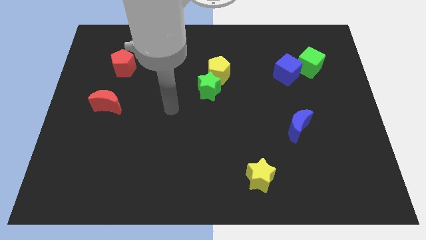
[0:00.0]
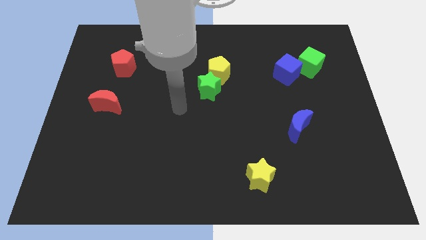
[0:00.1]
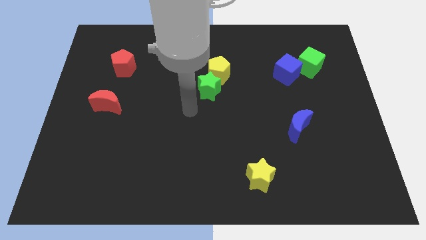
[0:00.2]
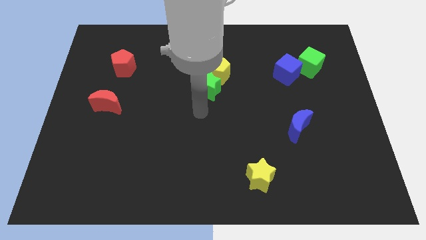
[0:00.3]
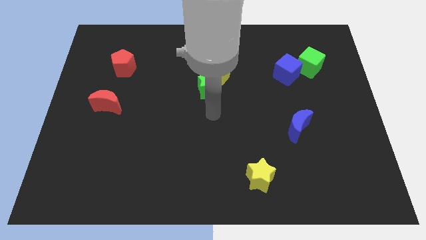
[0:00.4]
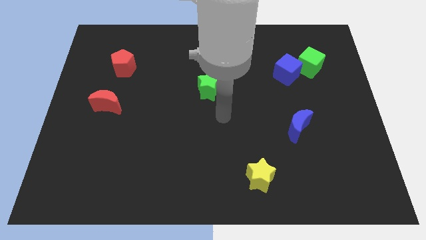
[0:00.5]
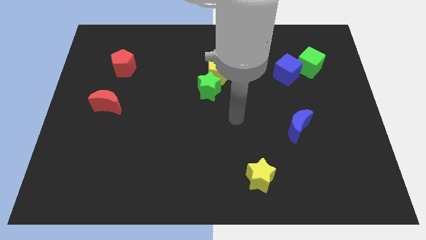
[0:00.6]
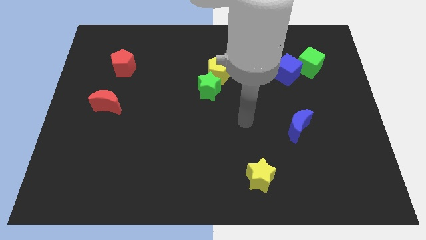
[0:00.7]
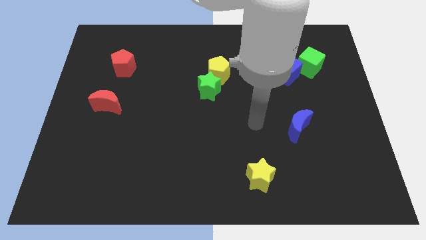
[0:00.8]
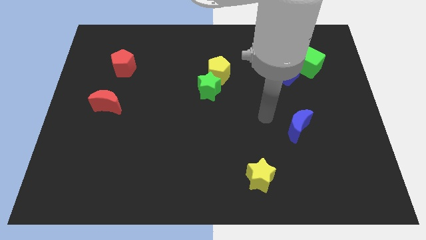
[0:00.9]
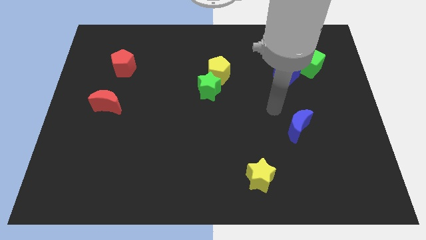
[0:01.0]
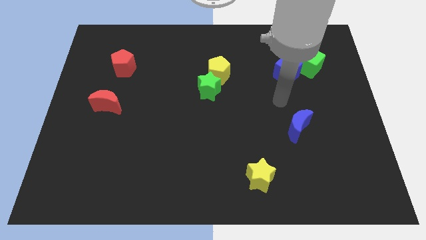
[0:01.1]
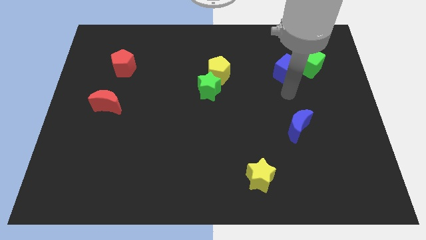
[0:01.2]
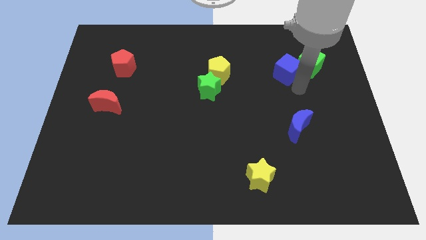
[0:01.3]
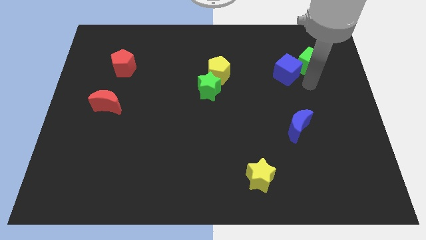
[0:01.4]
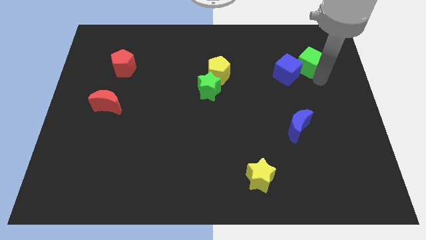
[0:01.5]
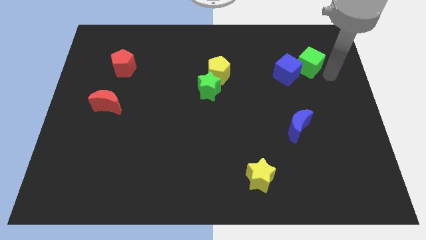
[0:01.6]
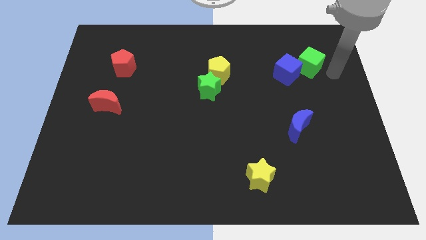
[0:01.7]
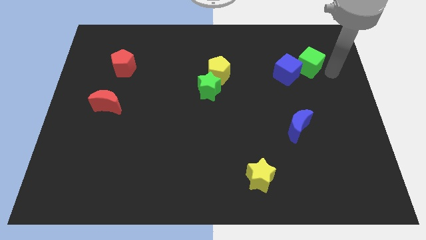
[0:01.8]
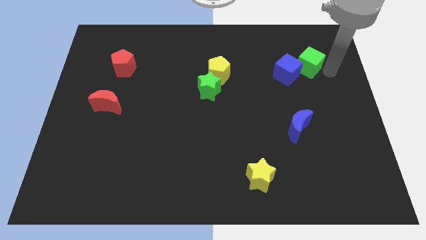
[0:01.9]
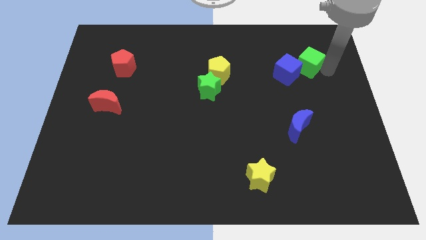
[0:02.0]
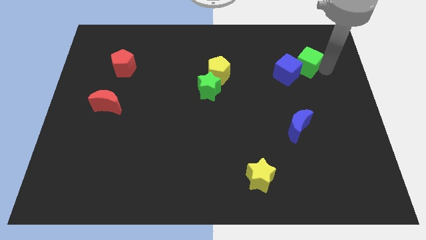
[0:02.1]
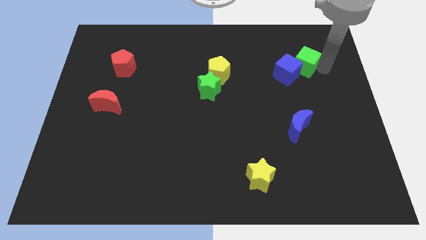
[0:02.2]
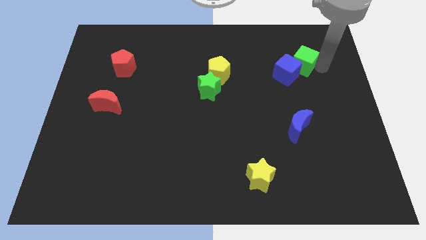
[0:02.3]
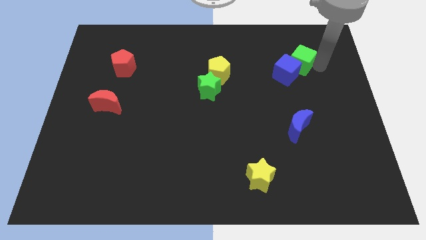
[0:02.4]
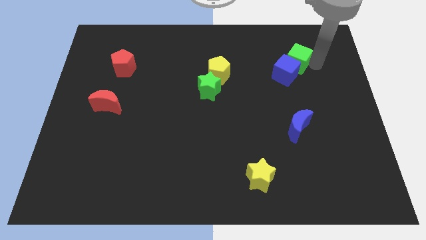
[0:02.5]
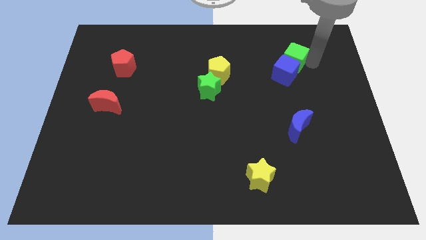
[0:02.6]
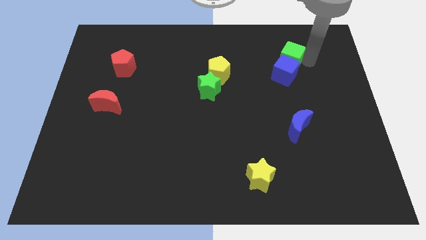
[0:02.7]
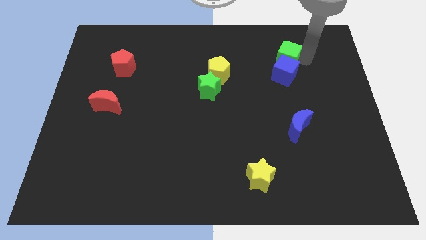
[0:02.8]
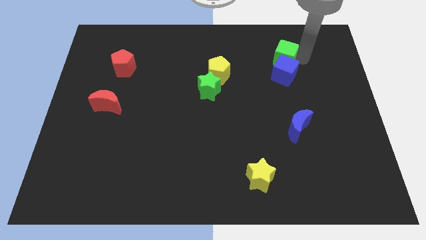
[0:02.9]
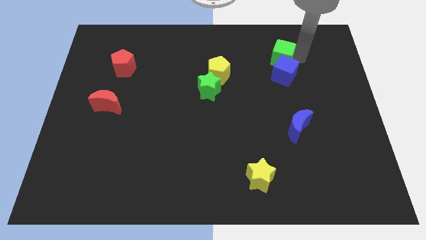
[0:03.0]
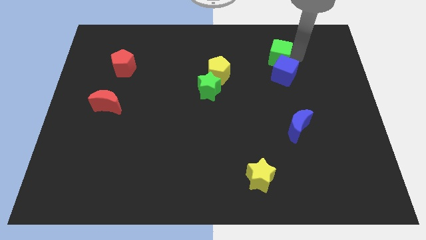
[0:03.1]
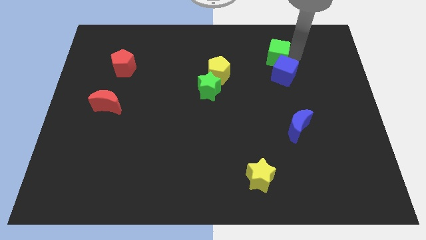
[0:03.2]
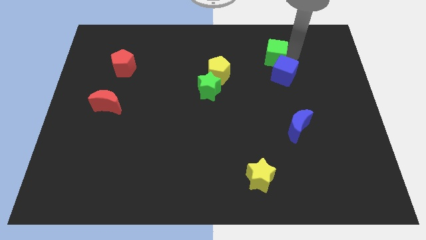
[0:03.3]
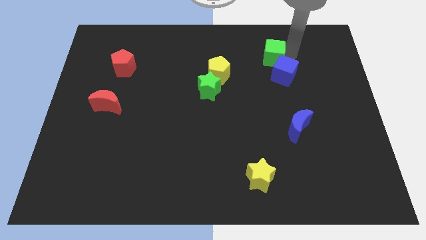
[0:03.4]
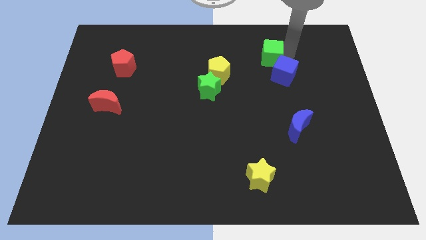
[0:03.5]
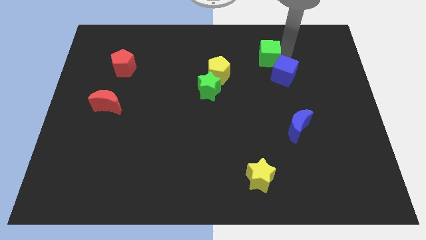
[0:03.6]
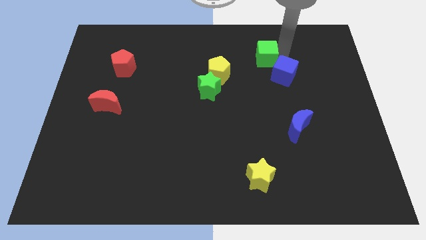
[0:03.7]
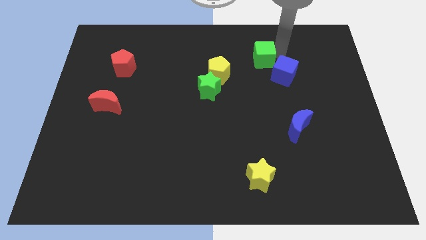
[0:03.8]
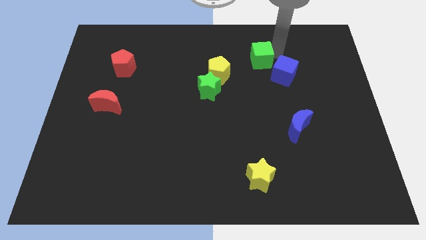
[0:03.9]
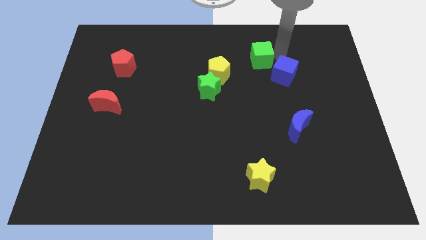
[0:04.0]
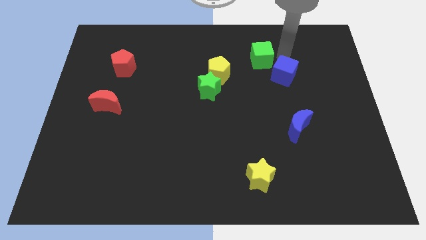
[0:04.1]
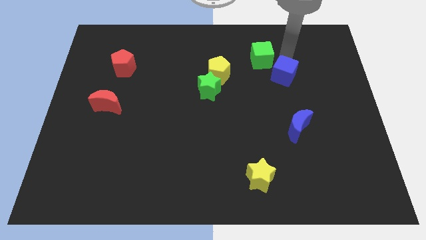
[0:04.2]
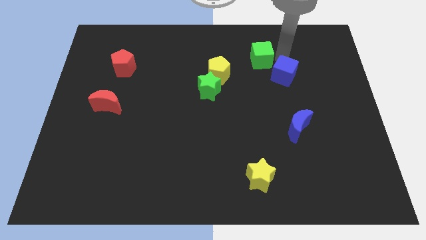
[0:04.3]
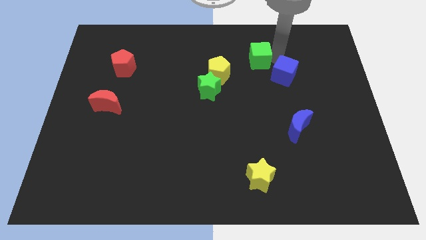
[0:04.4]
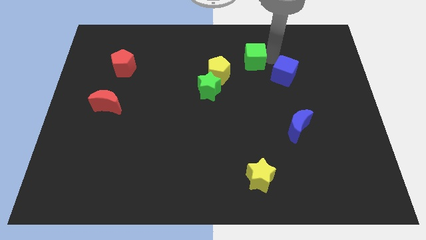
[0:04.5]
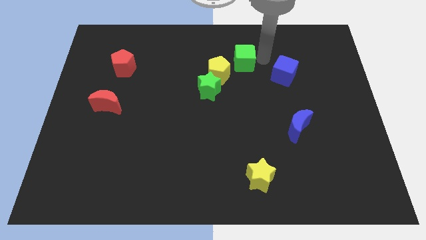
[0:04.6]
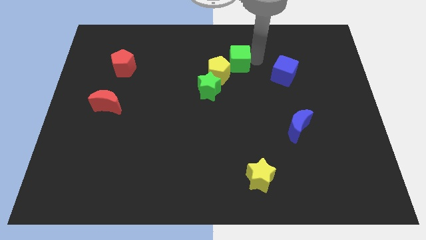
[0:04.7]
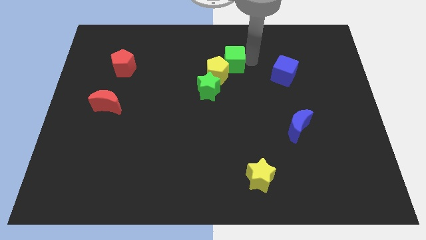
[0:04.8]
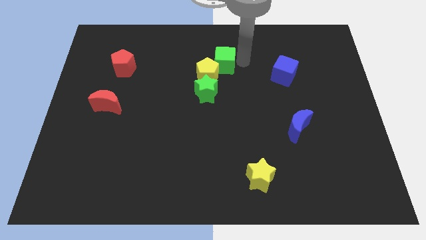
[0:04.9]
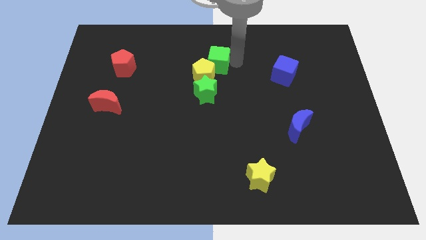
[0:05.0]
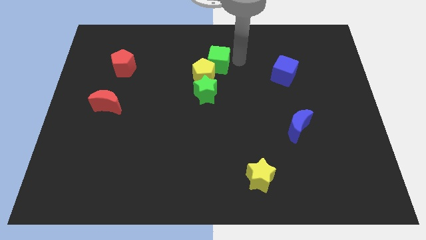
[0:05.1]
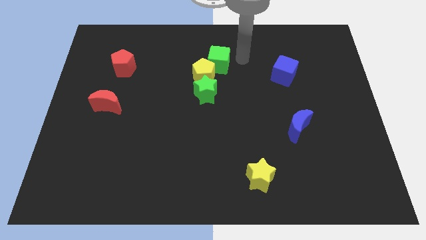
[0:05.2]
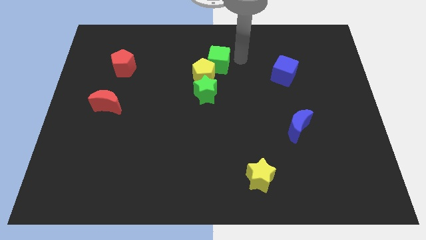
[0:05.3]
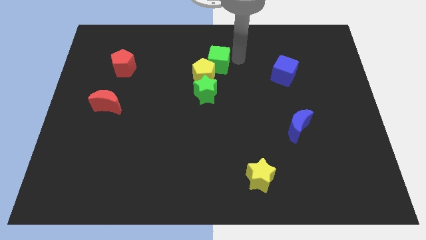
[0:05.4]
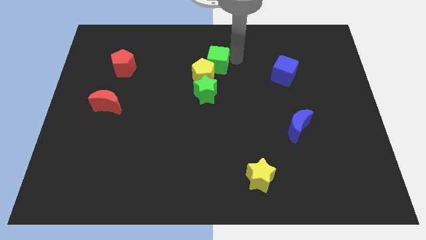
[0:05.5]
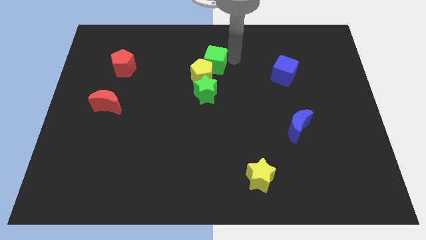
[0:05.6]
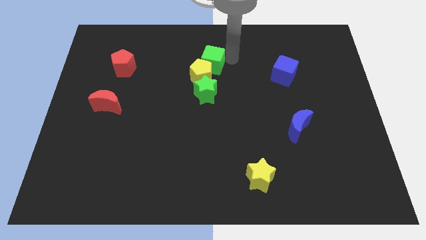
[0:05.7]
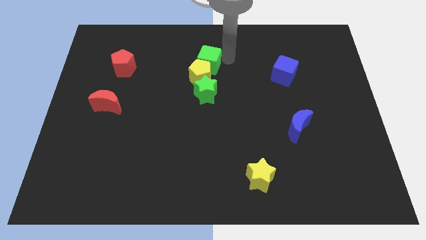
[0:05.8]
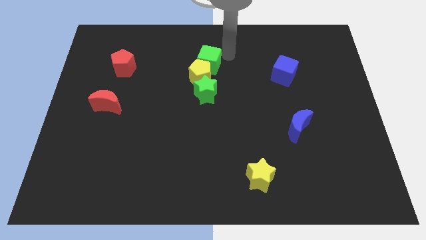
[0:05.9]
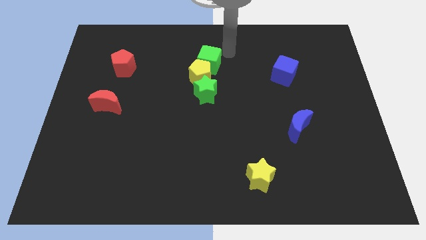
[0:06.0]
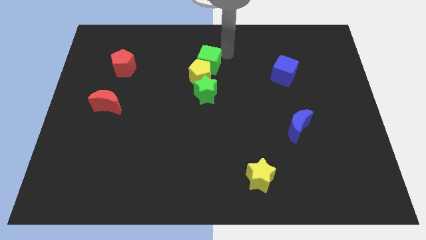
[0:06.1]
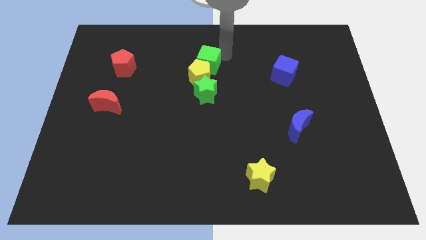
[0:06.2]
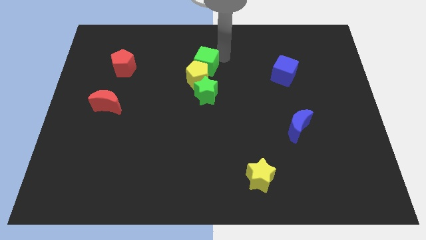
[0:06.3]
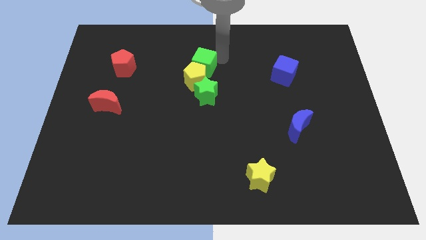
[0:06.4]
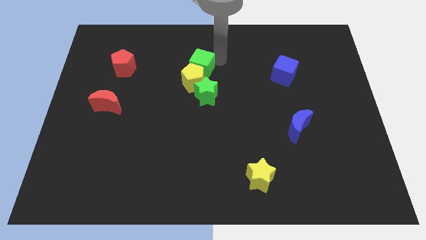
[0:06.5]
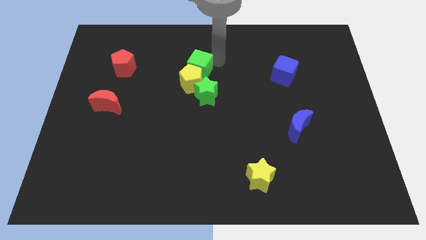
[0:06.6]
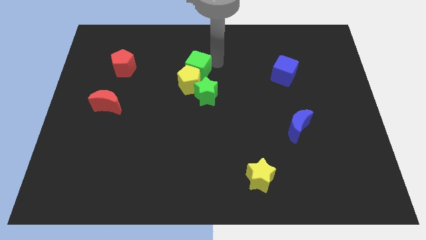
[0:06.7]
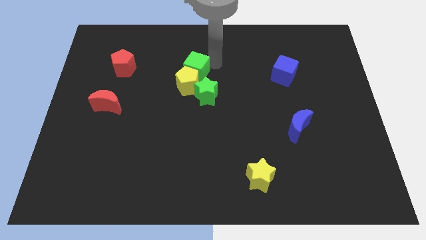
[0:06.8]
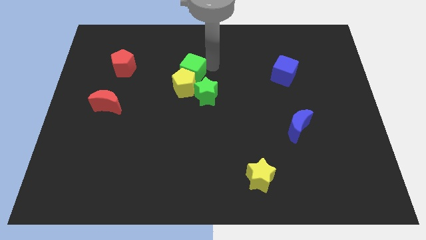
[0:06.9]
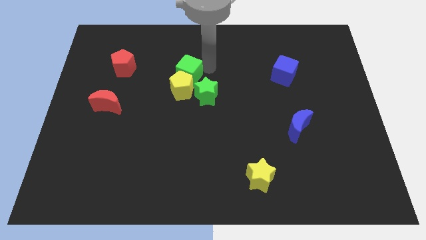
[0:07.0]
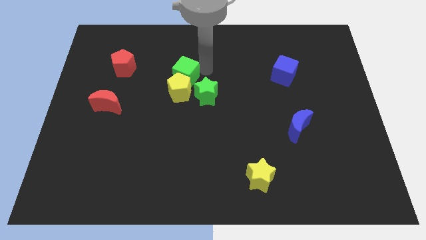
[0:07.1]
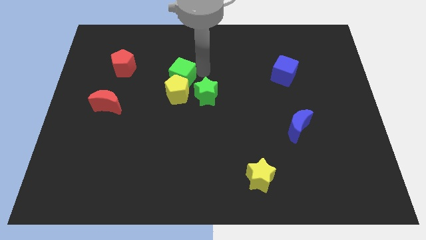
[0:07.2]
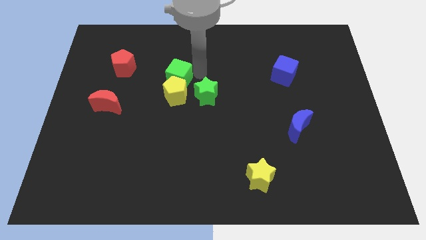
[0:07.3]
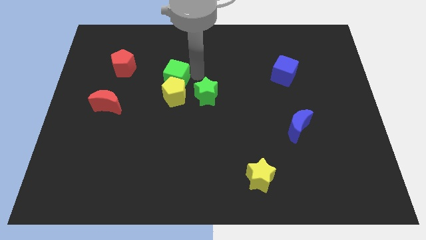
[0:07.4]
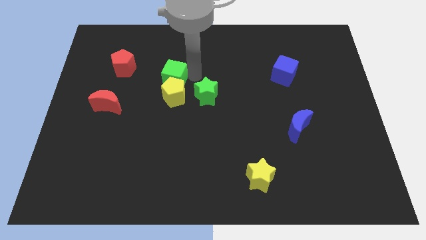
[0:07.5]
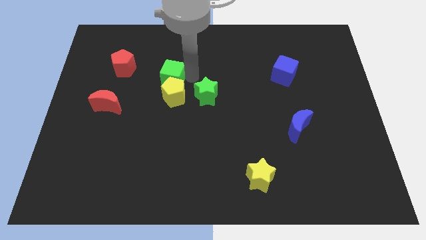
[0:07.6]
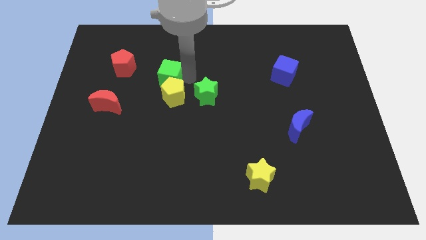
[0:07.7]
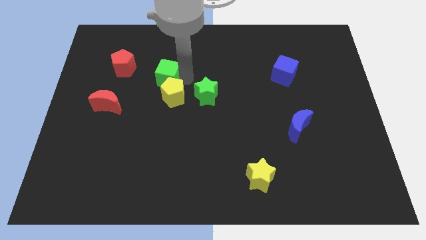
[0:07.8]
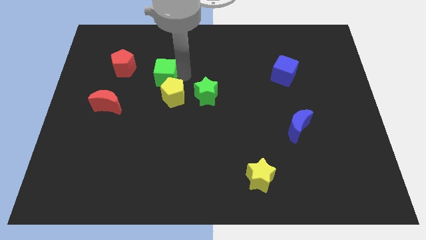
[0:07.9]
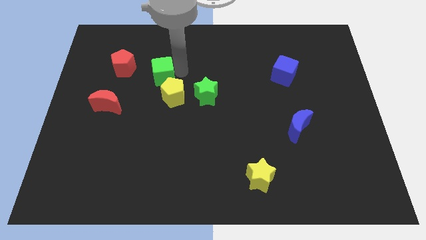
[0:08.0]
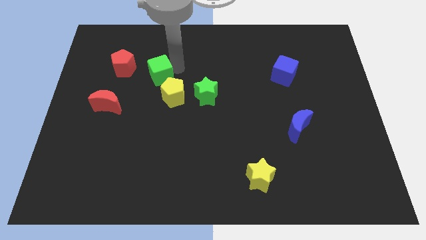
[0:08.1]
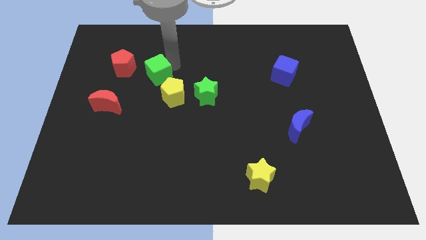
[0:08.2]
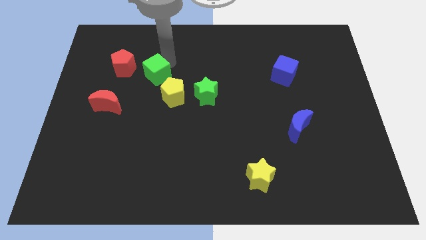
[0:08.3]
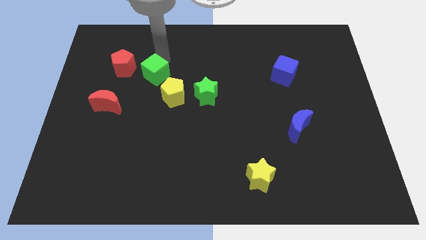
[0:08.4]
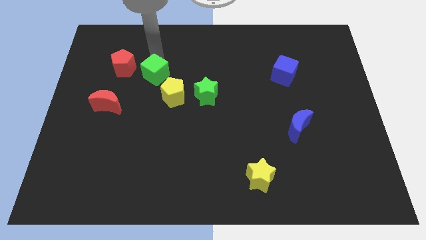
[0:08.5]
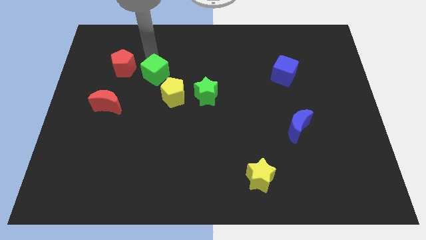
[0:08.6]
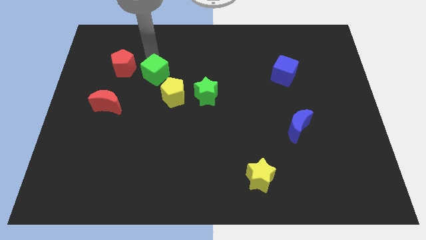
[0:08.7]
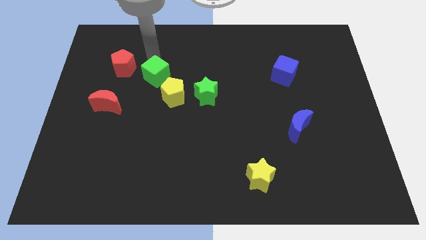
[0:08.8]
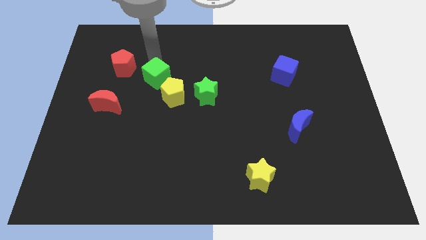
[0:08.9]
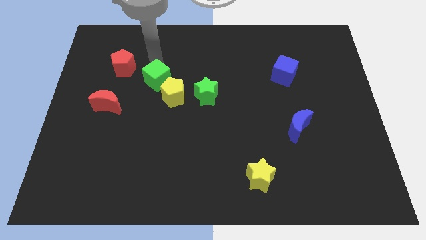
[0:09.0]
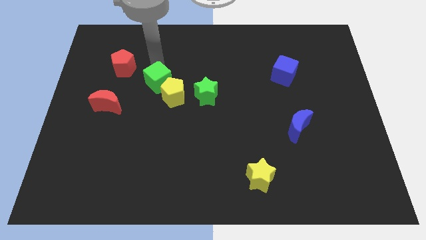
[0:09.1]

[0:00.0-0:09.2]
slide the green cube to the left side of the green star
